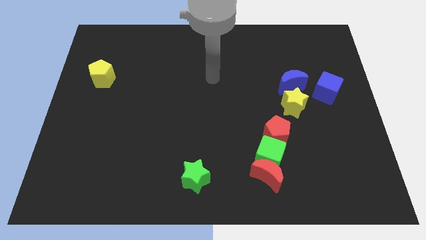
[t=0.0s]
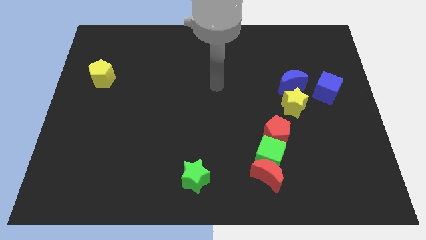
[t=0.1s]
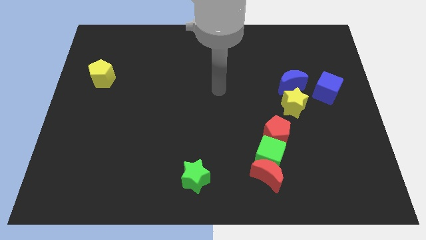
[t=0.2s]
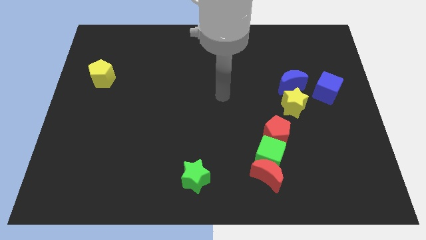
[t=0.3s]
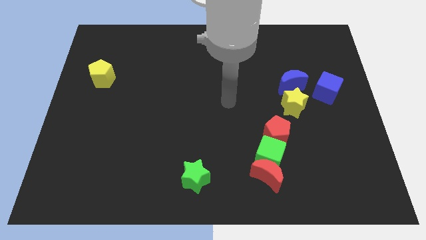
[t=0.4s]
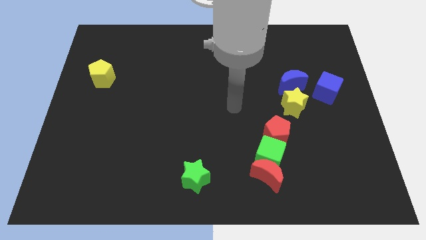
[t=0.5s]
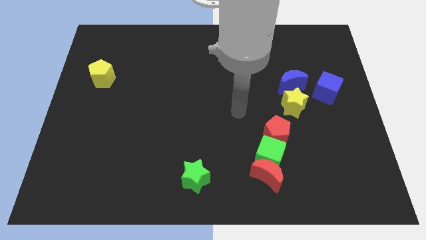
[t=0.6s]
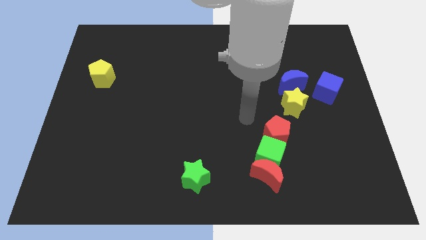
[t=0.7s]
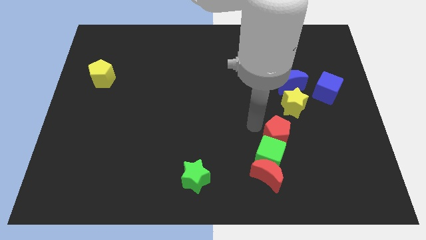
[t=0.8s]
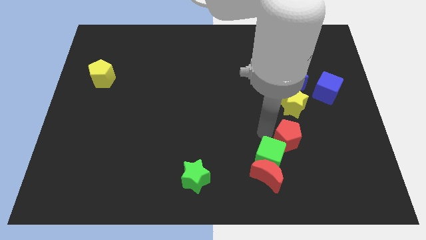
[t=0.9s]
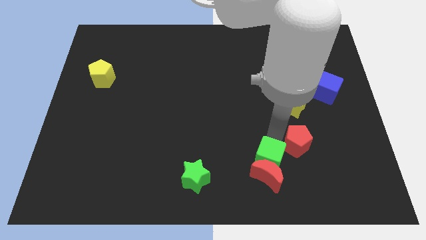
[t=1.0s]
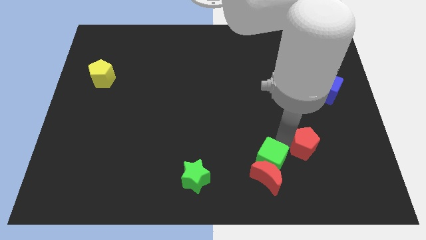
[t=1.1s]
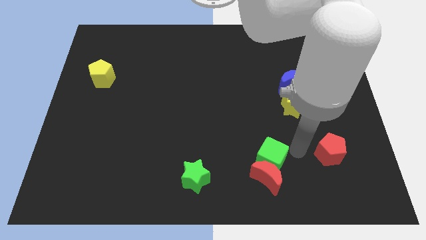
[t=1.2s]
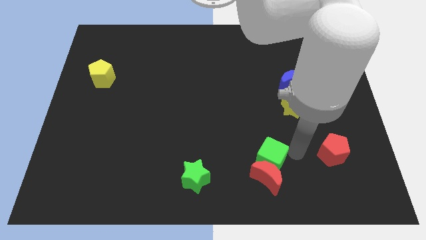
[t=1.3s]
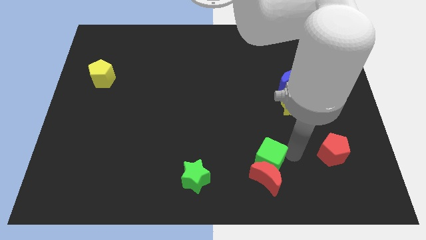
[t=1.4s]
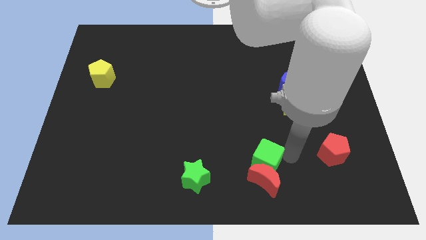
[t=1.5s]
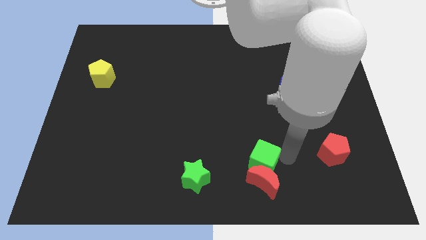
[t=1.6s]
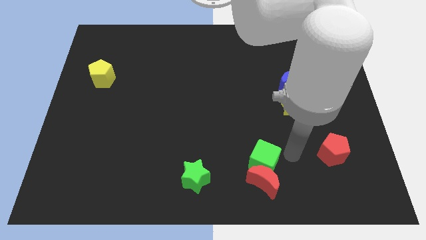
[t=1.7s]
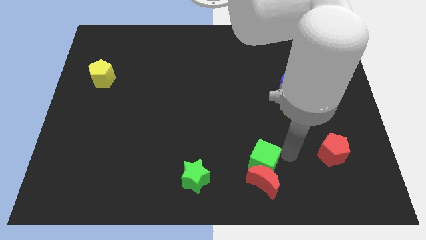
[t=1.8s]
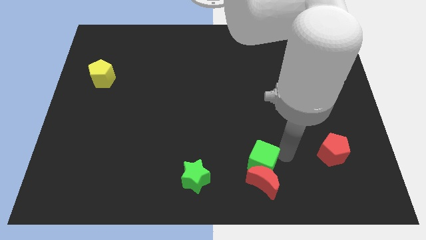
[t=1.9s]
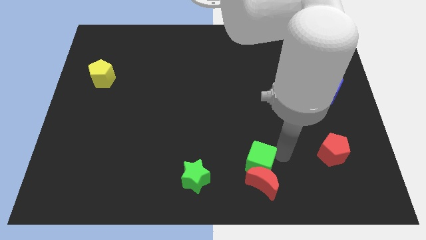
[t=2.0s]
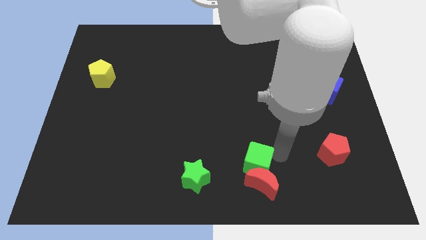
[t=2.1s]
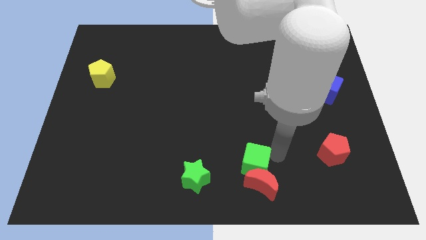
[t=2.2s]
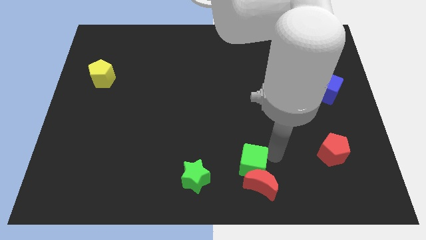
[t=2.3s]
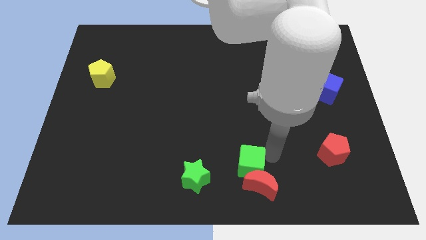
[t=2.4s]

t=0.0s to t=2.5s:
separate the green cube from the red moon and red pentagon

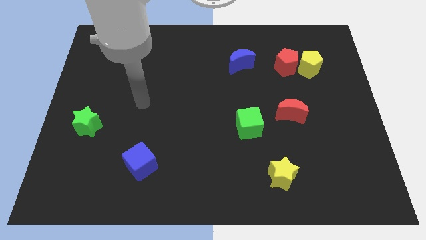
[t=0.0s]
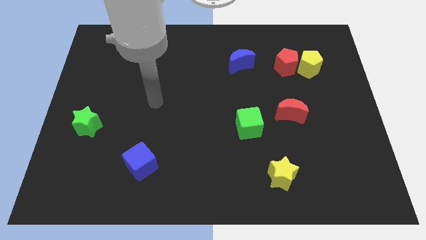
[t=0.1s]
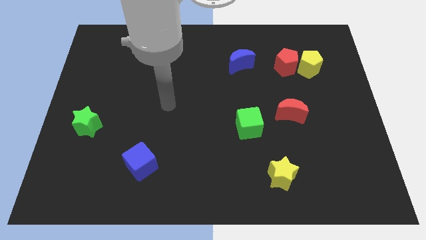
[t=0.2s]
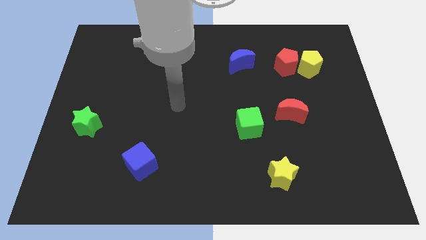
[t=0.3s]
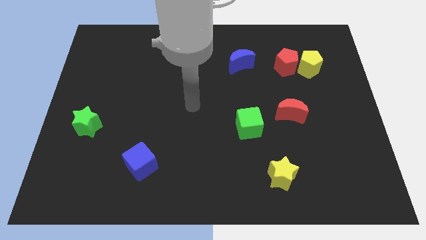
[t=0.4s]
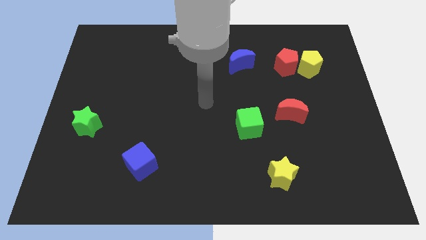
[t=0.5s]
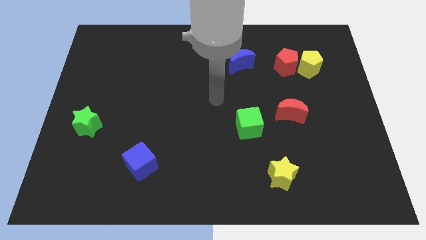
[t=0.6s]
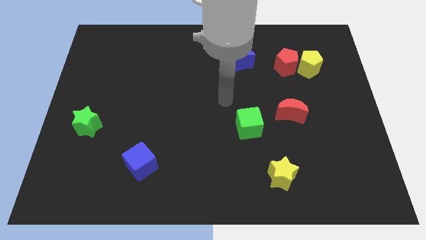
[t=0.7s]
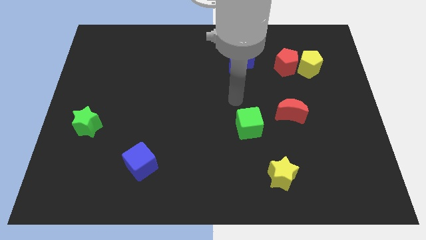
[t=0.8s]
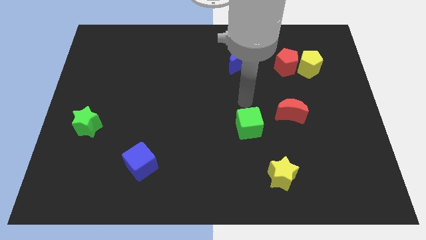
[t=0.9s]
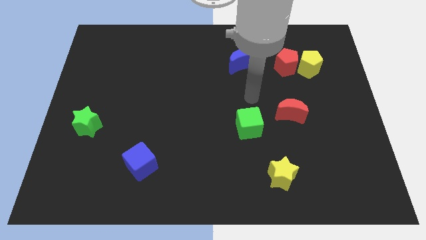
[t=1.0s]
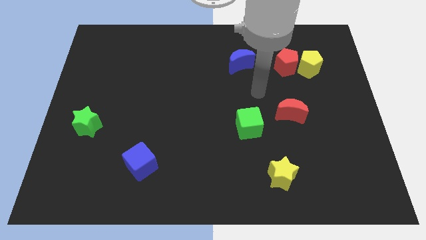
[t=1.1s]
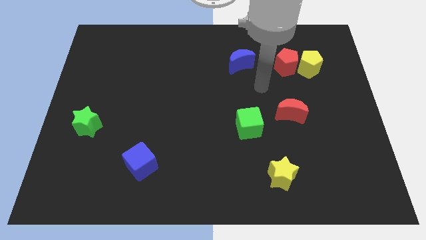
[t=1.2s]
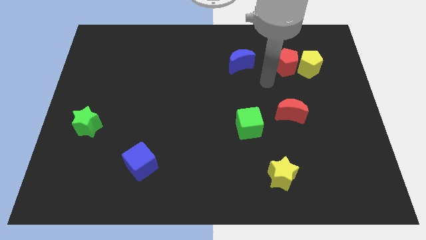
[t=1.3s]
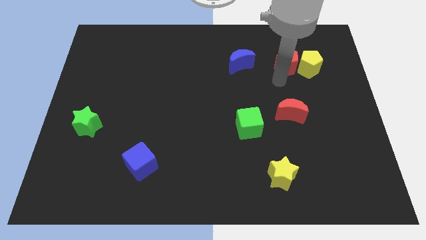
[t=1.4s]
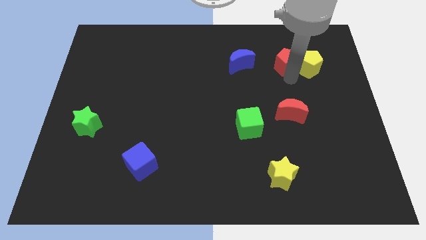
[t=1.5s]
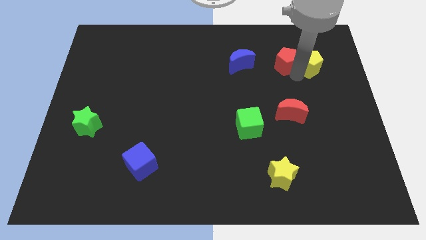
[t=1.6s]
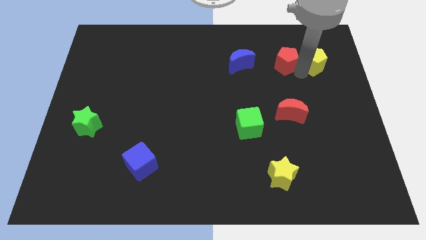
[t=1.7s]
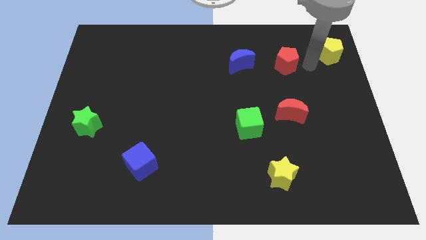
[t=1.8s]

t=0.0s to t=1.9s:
move the red pentagon away from the yellow pentagon

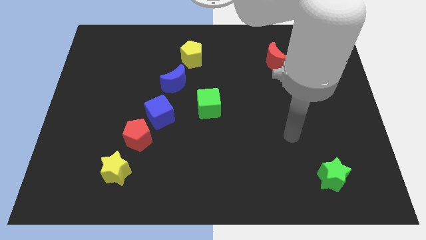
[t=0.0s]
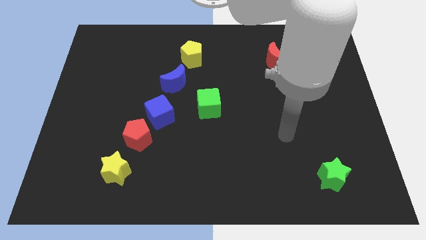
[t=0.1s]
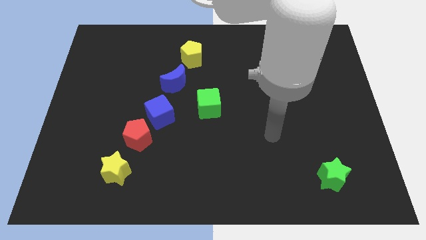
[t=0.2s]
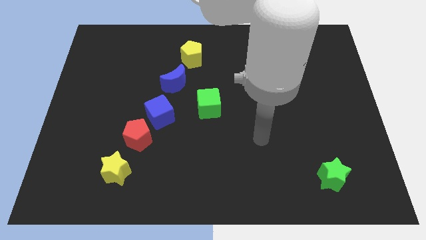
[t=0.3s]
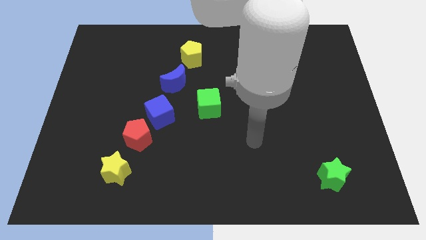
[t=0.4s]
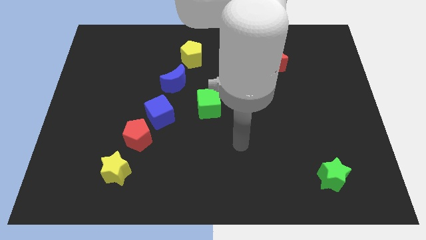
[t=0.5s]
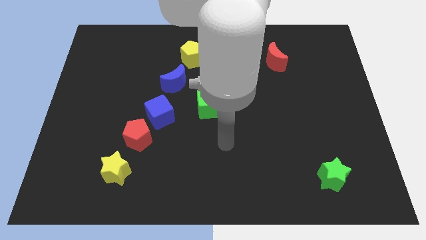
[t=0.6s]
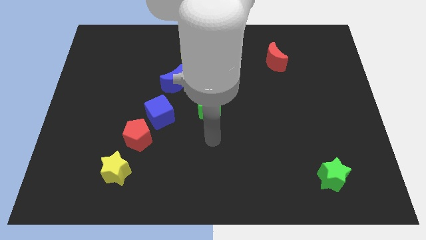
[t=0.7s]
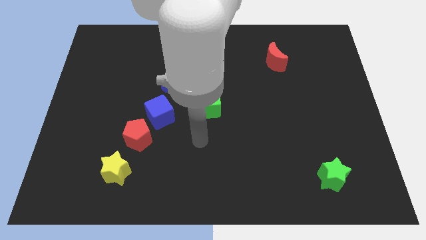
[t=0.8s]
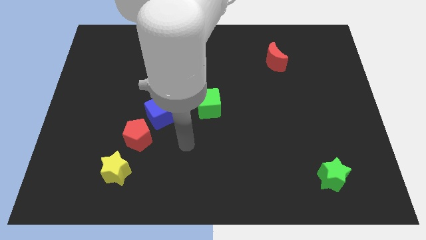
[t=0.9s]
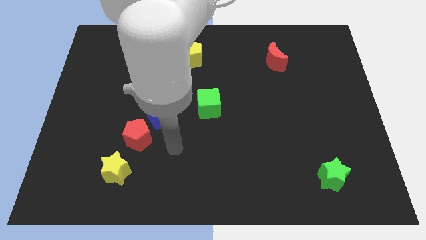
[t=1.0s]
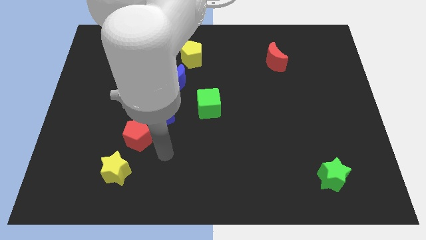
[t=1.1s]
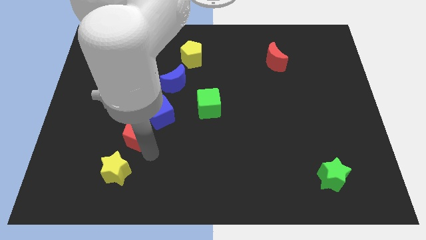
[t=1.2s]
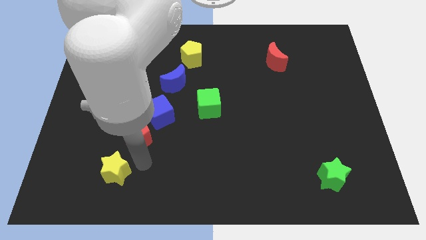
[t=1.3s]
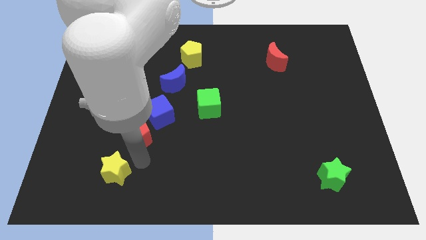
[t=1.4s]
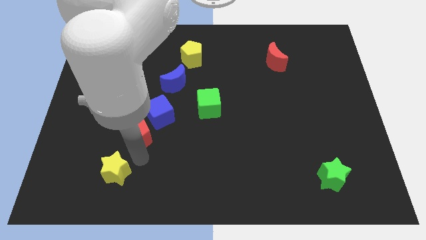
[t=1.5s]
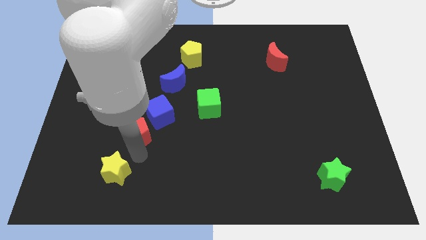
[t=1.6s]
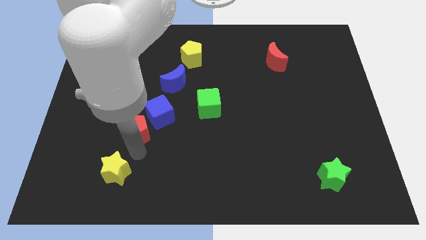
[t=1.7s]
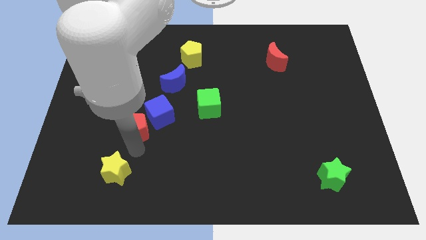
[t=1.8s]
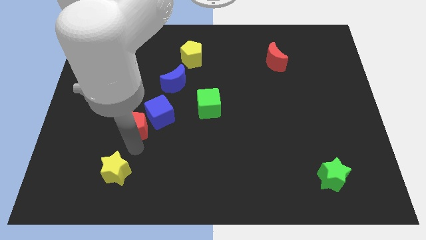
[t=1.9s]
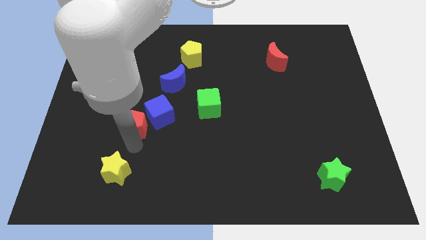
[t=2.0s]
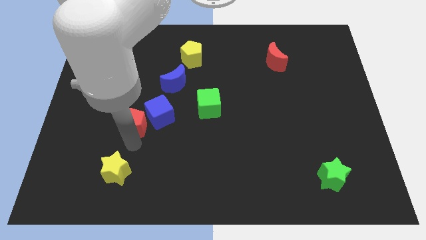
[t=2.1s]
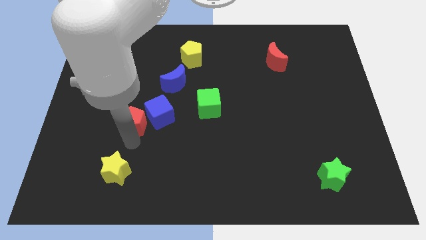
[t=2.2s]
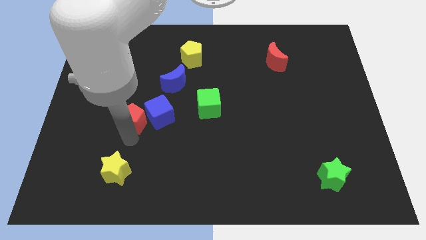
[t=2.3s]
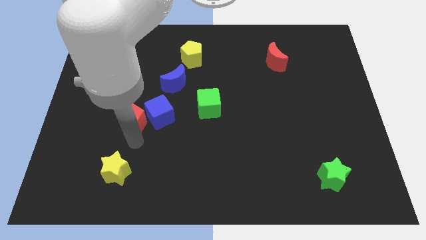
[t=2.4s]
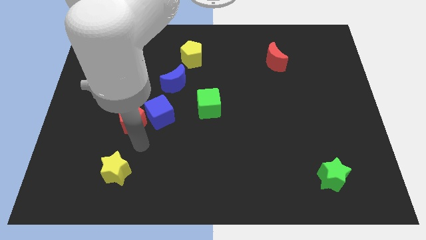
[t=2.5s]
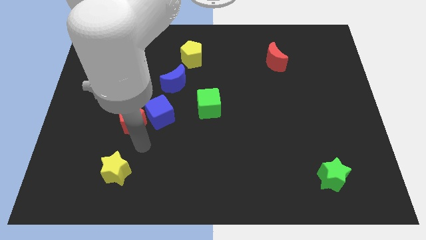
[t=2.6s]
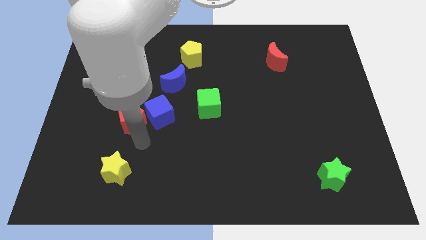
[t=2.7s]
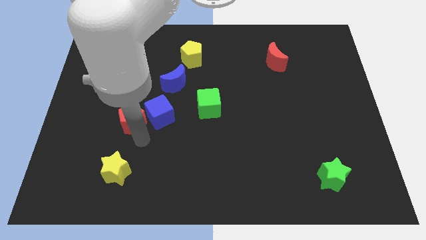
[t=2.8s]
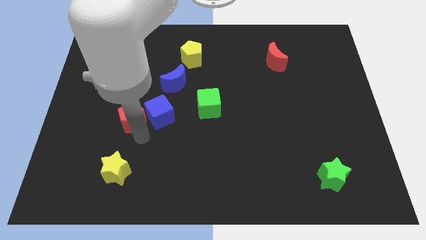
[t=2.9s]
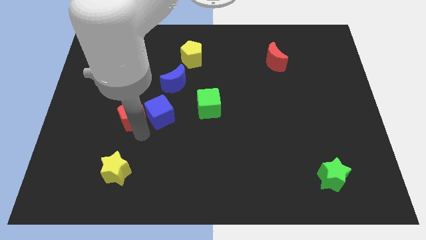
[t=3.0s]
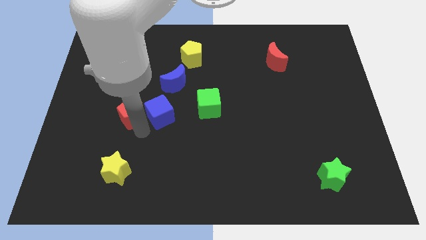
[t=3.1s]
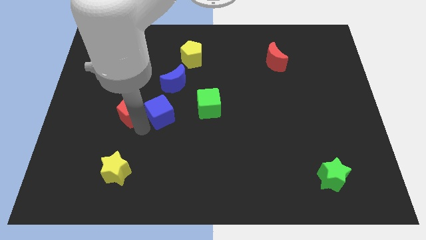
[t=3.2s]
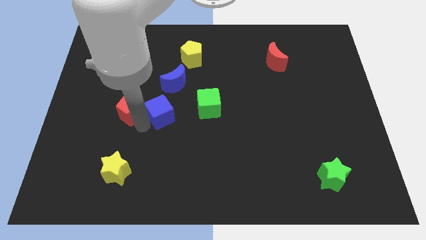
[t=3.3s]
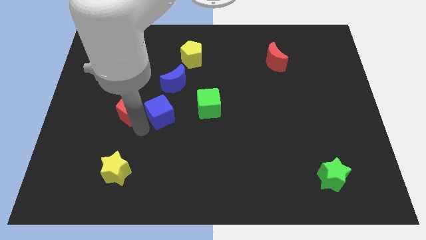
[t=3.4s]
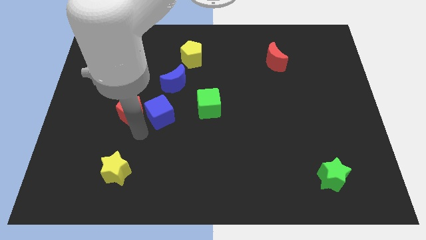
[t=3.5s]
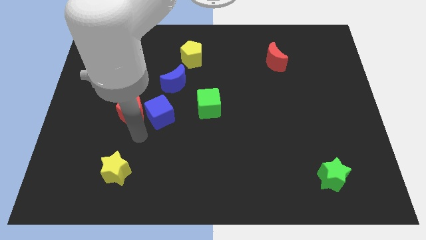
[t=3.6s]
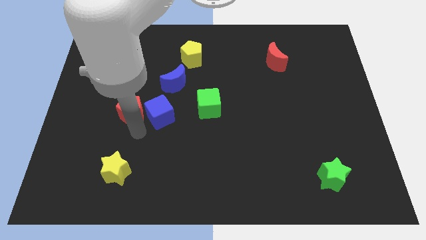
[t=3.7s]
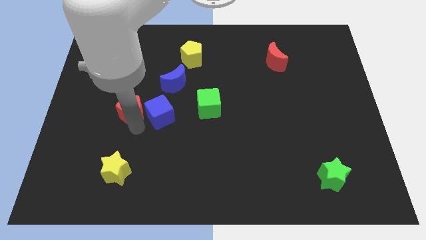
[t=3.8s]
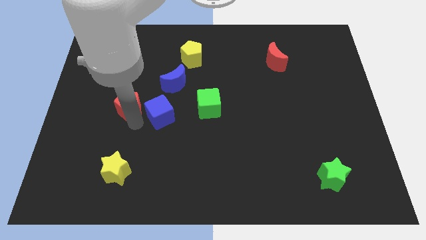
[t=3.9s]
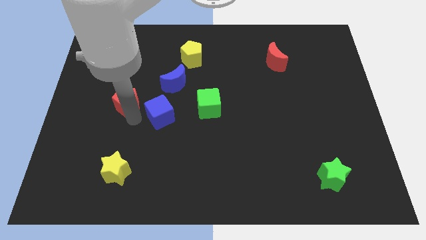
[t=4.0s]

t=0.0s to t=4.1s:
separate the red pentagon from the blue cube and yellow star

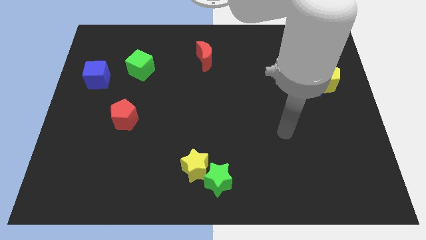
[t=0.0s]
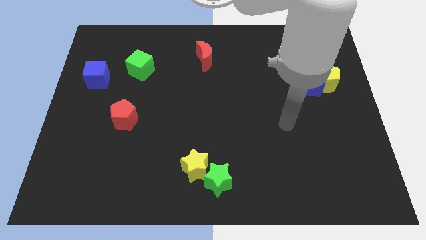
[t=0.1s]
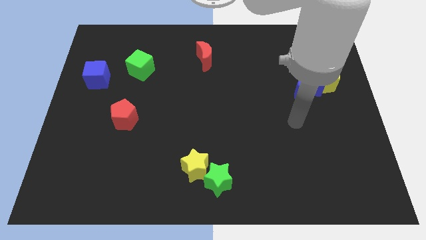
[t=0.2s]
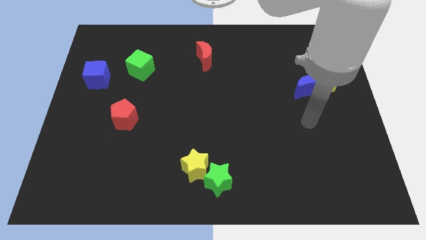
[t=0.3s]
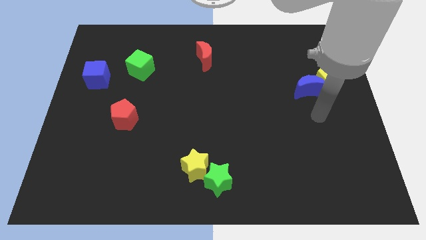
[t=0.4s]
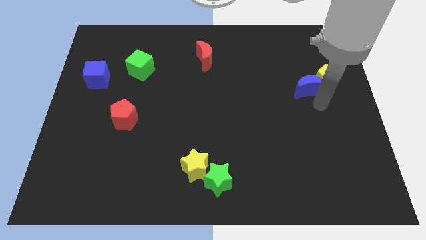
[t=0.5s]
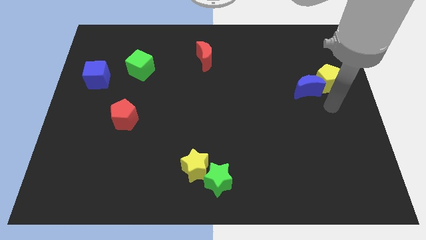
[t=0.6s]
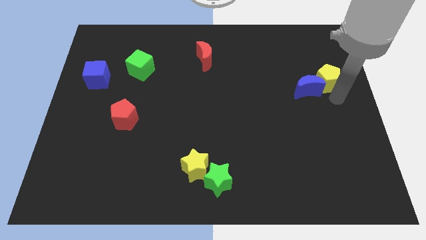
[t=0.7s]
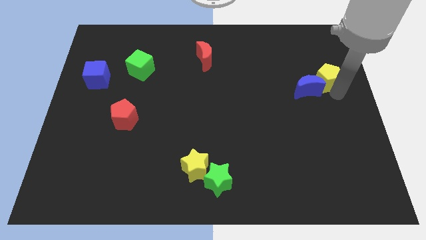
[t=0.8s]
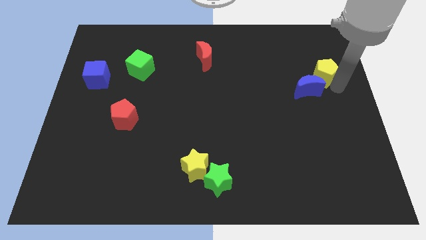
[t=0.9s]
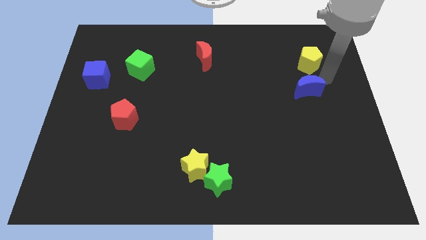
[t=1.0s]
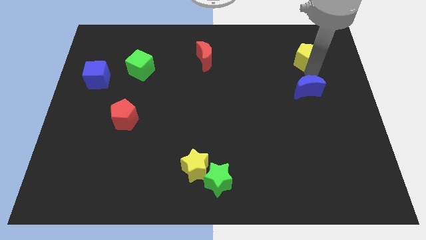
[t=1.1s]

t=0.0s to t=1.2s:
move the blue moon away from the yellow pentagon
